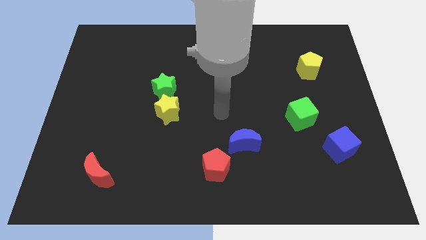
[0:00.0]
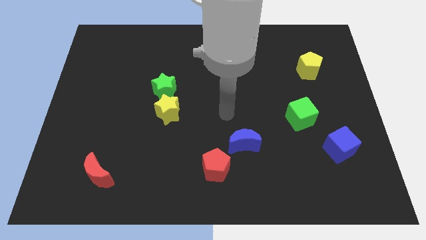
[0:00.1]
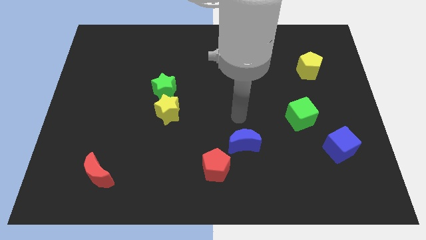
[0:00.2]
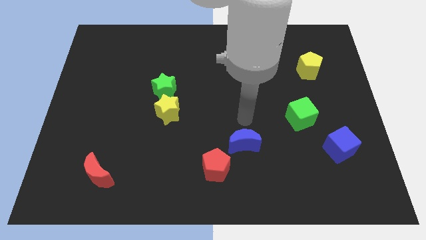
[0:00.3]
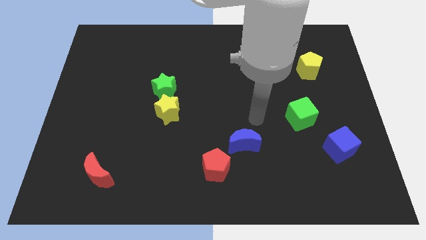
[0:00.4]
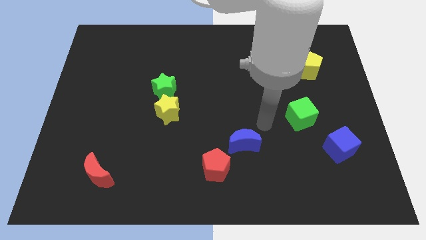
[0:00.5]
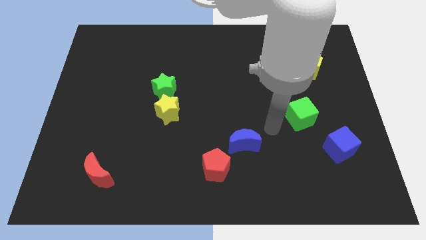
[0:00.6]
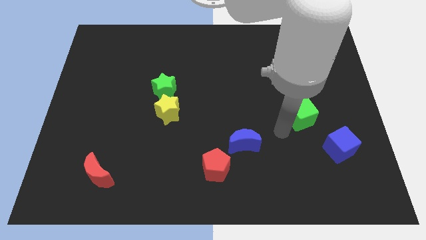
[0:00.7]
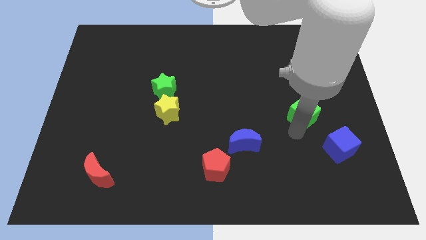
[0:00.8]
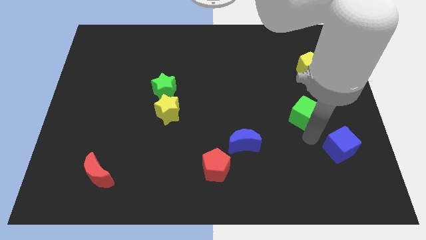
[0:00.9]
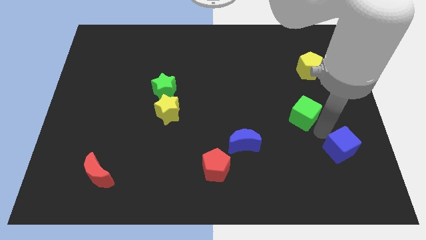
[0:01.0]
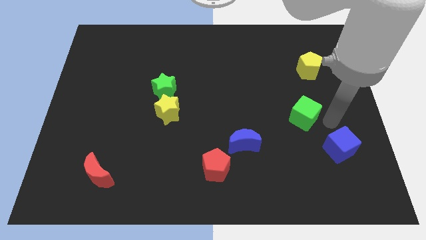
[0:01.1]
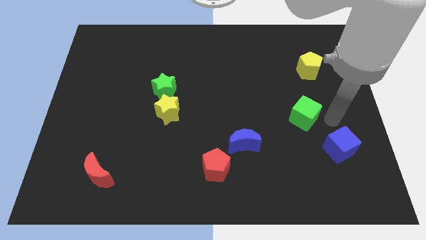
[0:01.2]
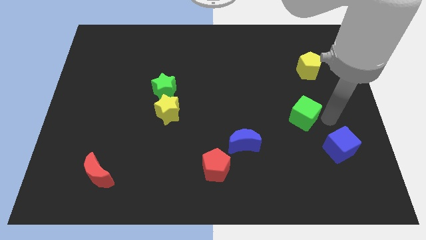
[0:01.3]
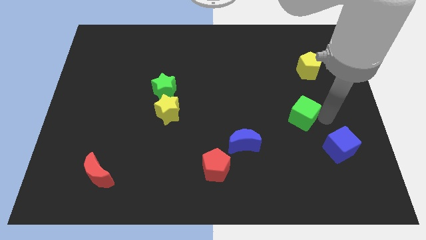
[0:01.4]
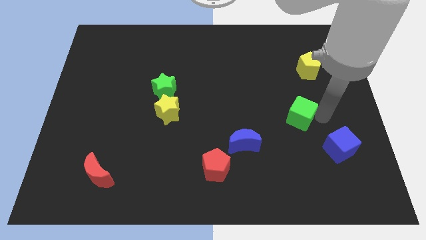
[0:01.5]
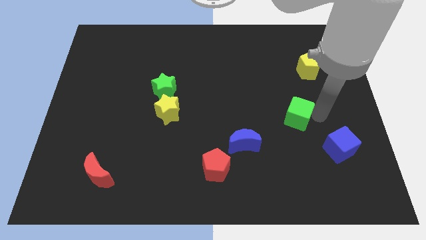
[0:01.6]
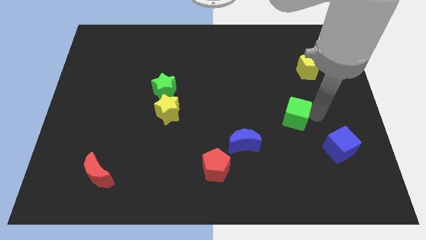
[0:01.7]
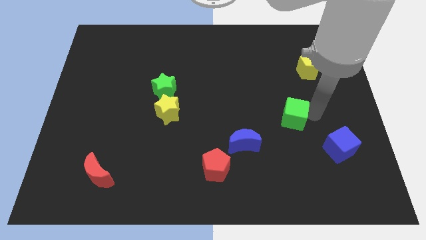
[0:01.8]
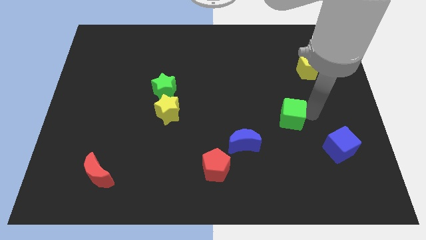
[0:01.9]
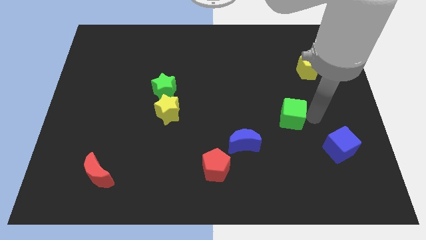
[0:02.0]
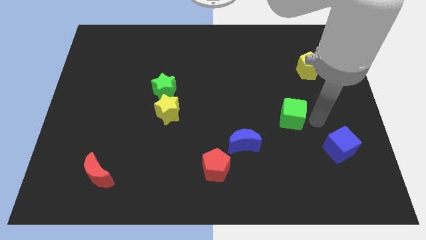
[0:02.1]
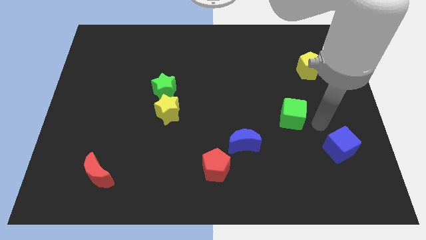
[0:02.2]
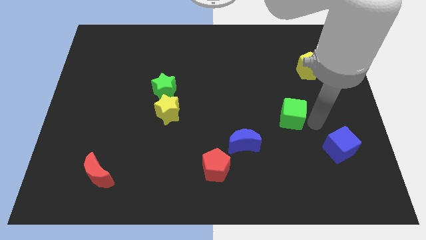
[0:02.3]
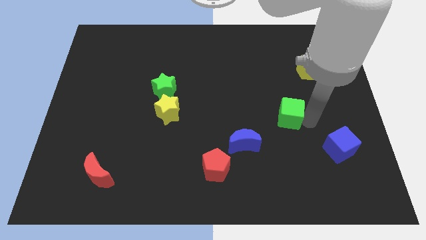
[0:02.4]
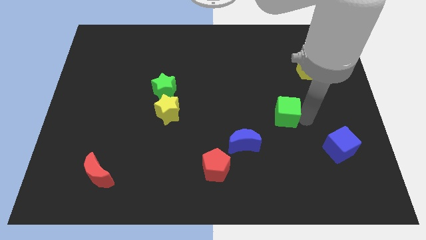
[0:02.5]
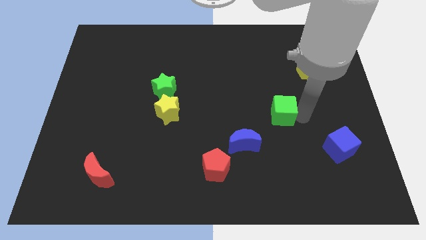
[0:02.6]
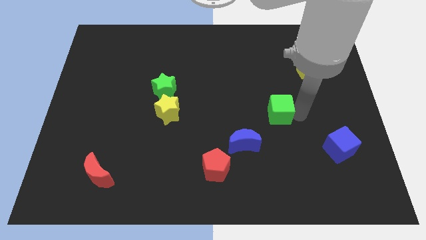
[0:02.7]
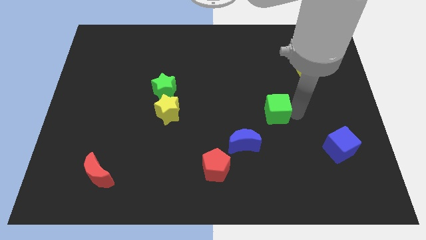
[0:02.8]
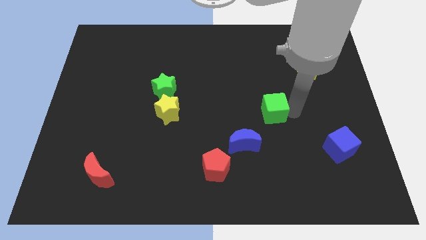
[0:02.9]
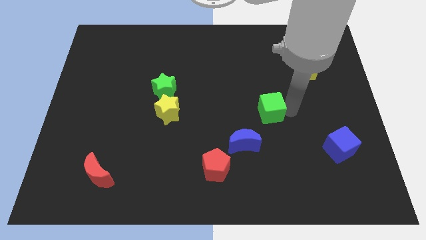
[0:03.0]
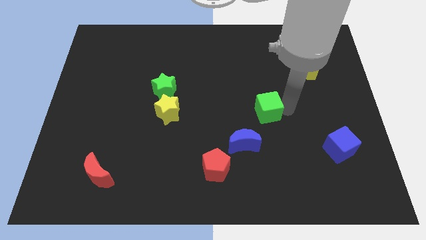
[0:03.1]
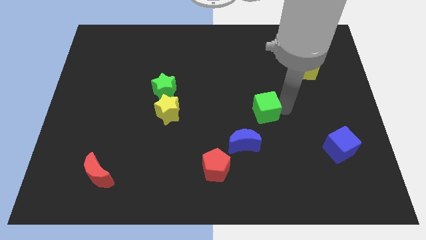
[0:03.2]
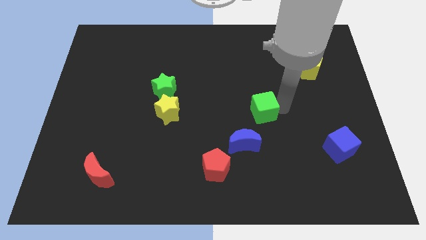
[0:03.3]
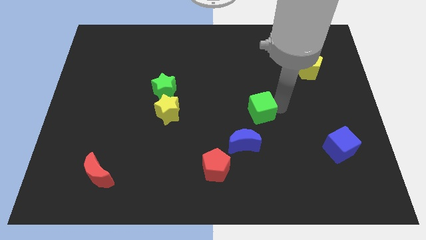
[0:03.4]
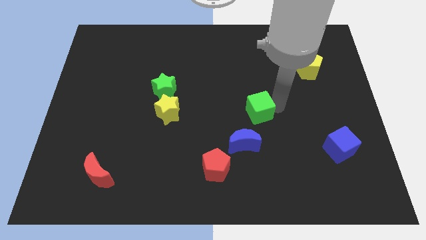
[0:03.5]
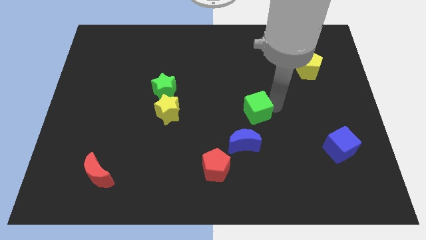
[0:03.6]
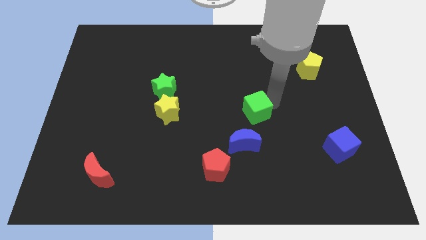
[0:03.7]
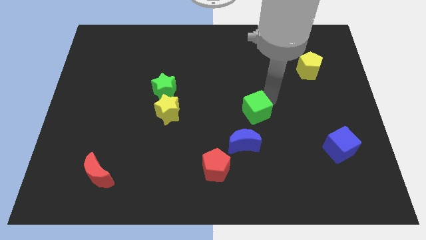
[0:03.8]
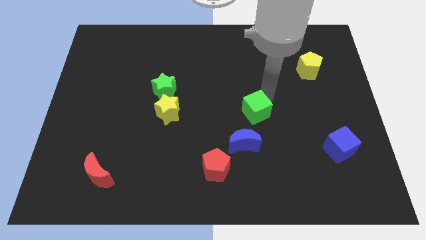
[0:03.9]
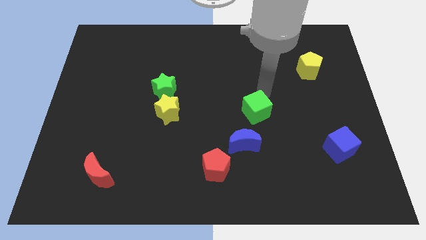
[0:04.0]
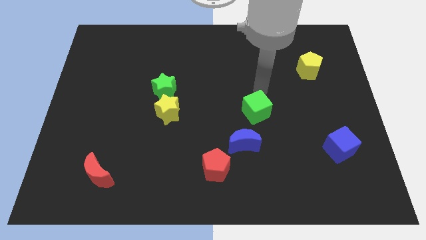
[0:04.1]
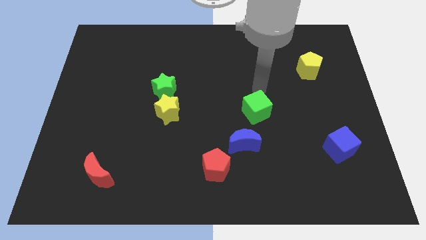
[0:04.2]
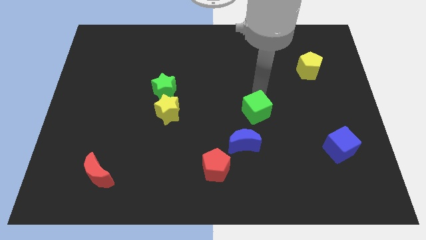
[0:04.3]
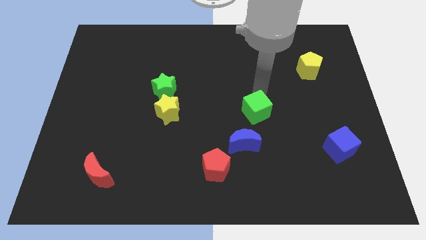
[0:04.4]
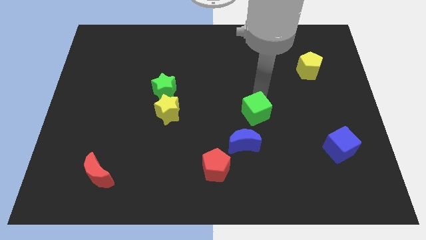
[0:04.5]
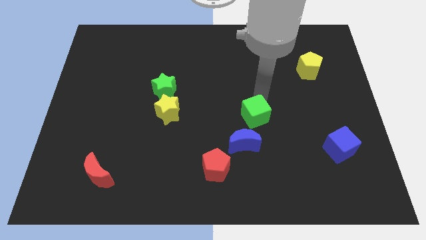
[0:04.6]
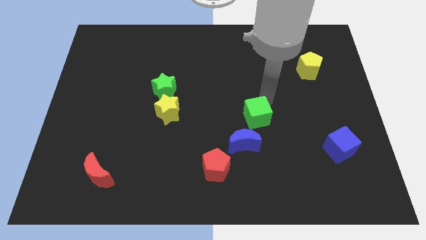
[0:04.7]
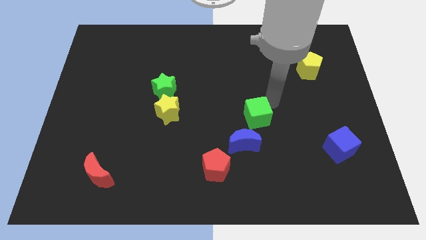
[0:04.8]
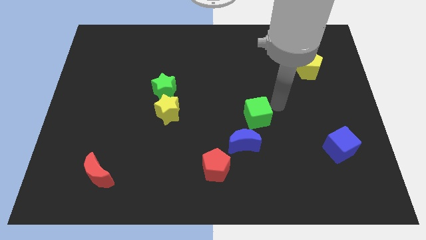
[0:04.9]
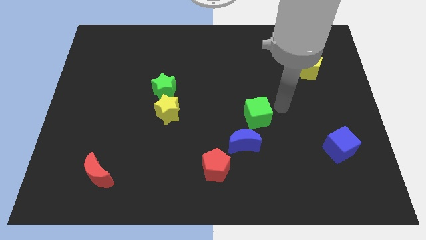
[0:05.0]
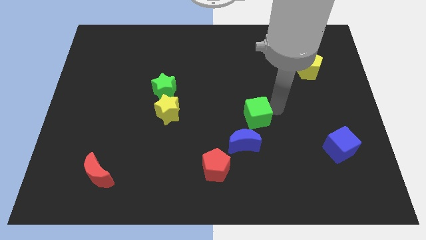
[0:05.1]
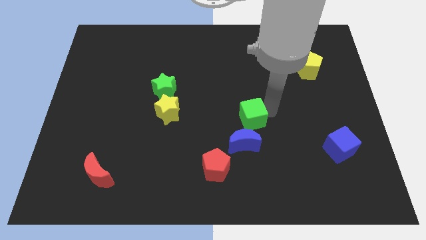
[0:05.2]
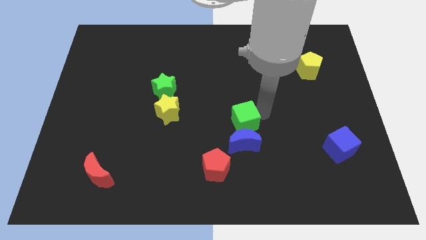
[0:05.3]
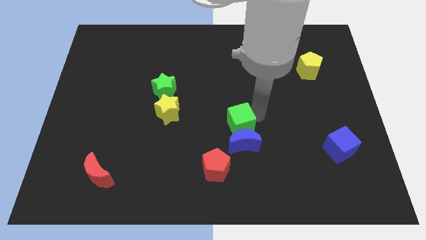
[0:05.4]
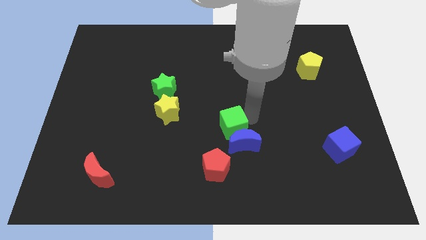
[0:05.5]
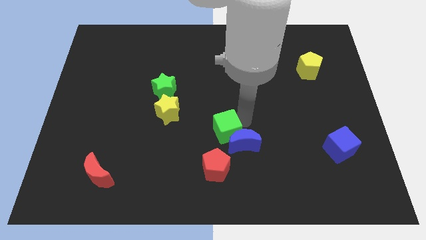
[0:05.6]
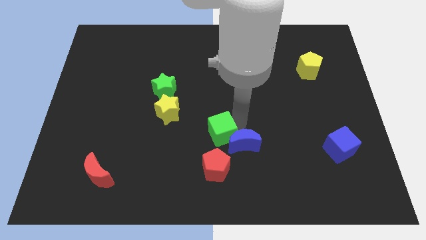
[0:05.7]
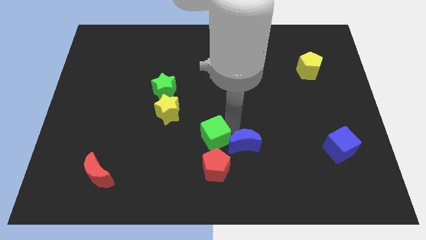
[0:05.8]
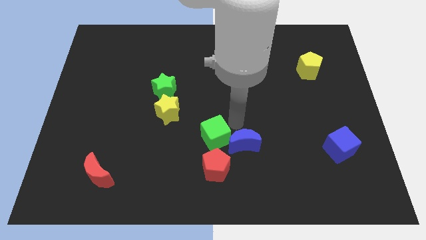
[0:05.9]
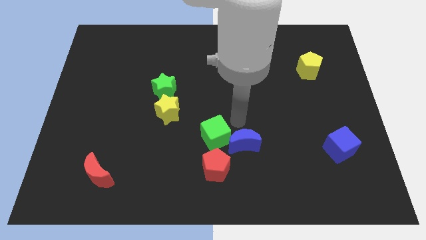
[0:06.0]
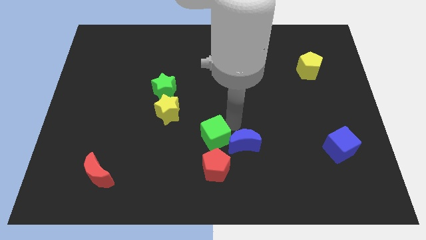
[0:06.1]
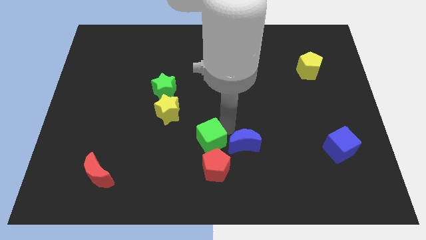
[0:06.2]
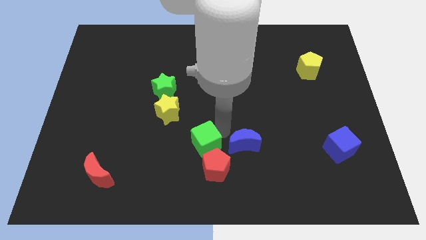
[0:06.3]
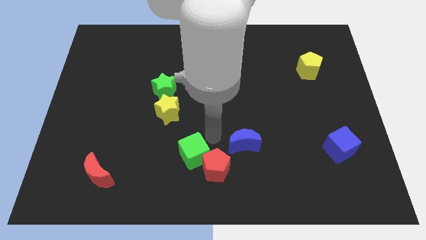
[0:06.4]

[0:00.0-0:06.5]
put the green cube left of the red pentagon
